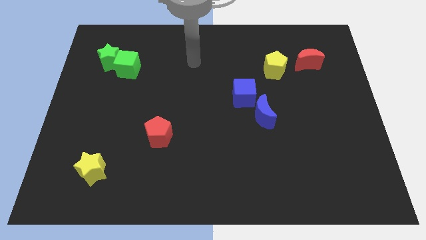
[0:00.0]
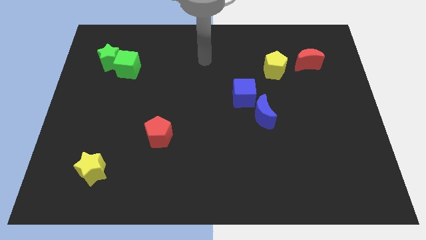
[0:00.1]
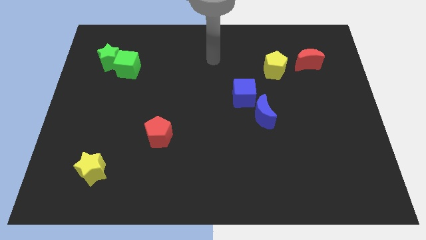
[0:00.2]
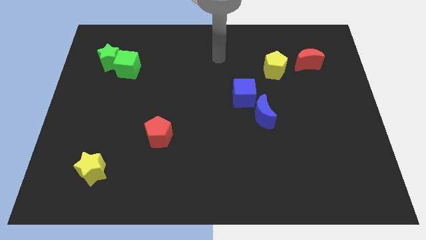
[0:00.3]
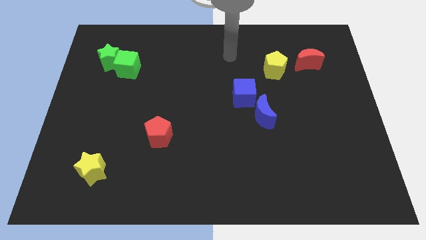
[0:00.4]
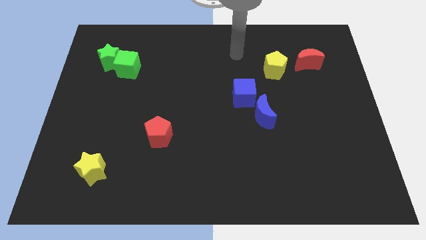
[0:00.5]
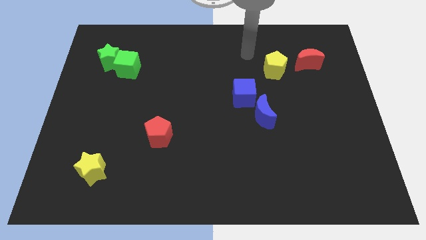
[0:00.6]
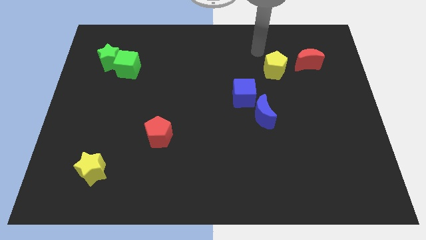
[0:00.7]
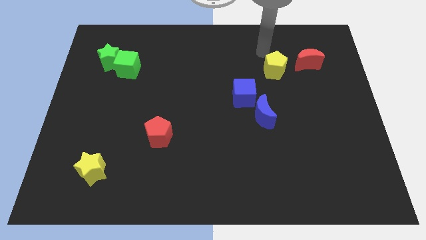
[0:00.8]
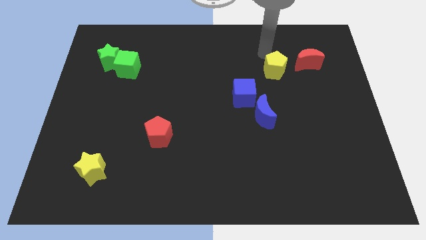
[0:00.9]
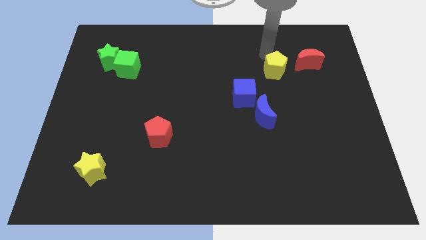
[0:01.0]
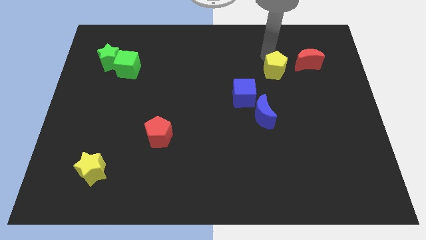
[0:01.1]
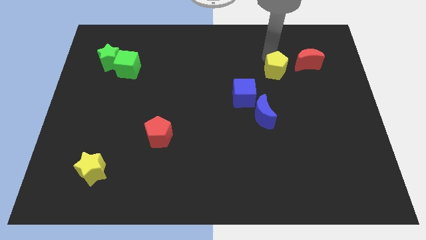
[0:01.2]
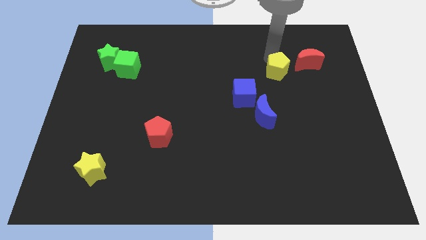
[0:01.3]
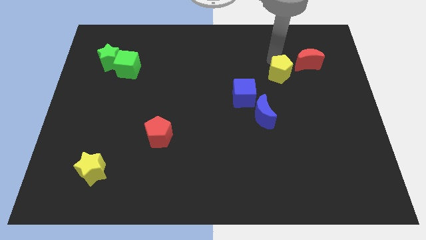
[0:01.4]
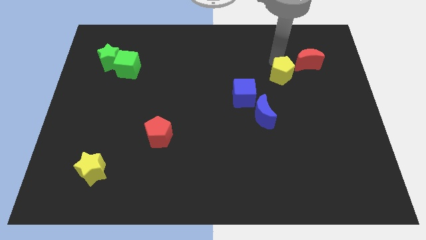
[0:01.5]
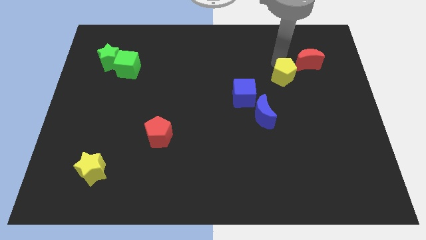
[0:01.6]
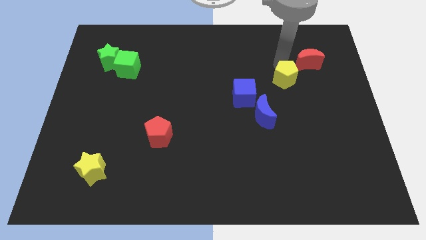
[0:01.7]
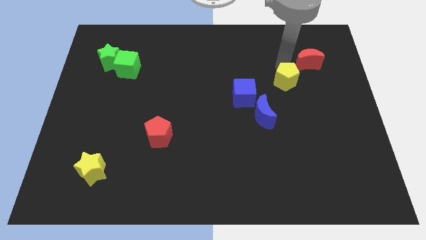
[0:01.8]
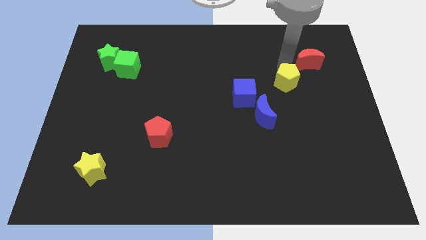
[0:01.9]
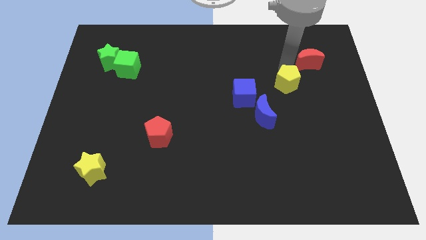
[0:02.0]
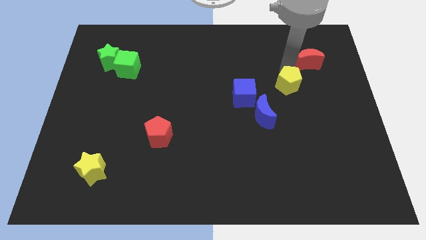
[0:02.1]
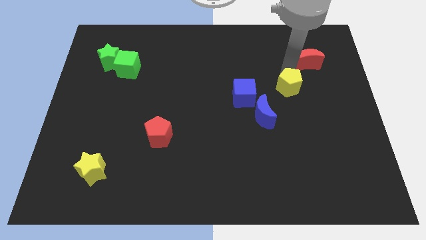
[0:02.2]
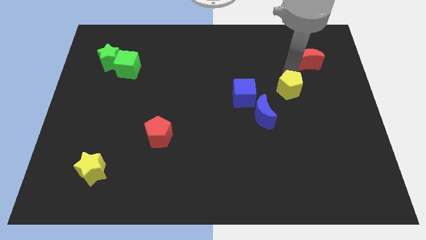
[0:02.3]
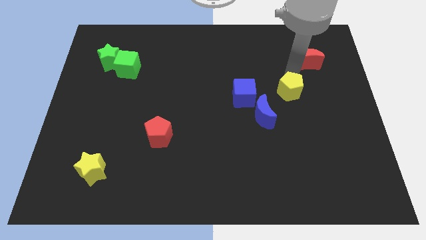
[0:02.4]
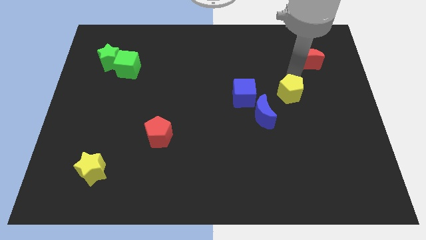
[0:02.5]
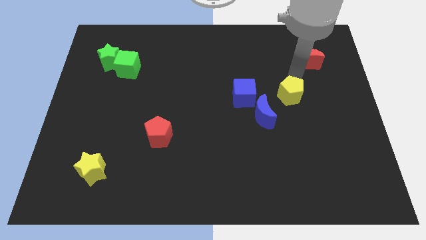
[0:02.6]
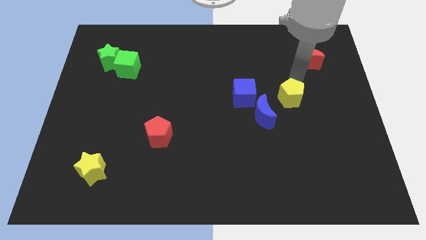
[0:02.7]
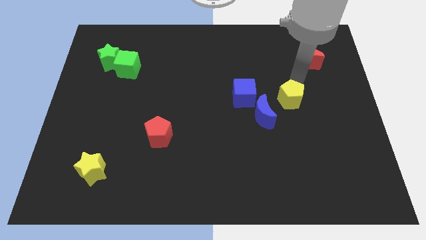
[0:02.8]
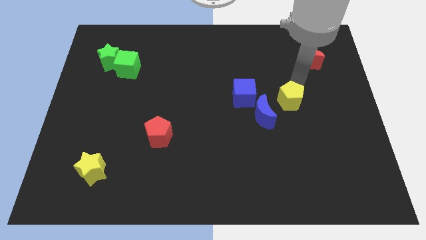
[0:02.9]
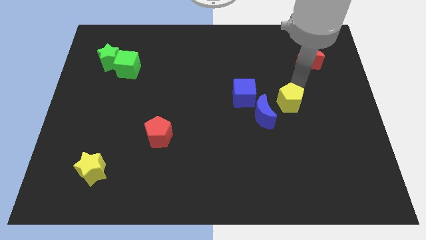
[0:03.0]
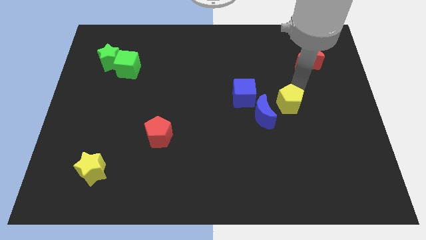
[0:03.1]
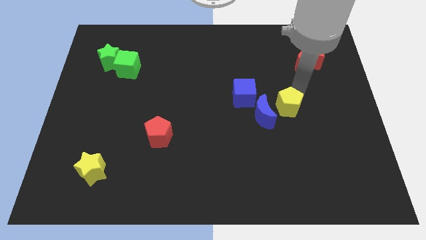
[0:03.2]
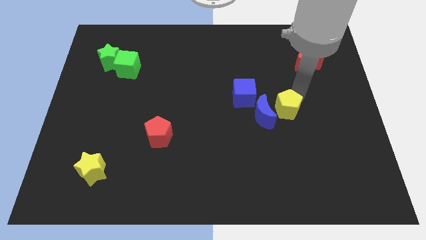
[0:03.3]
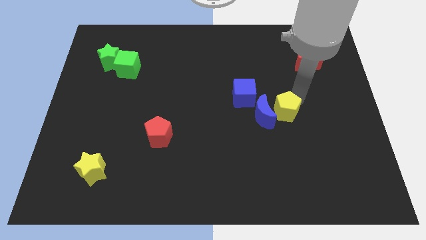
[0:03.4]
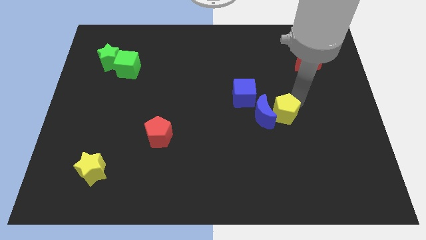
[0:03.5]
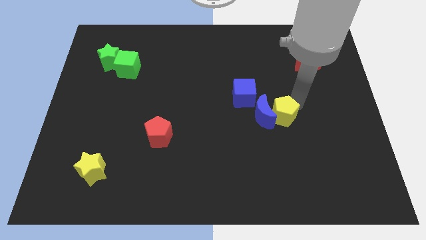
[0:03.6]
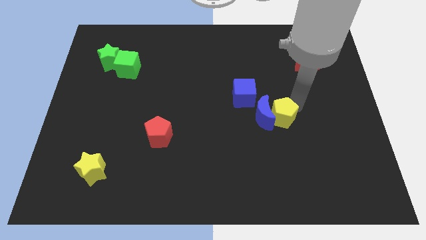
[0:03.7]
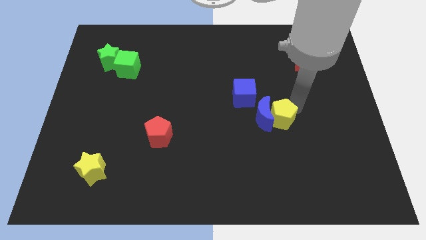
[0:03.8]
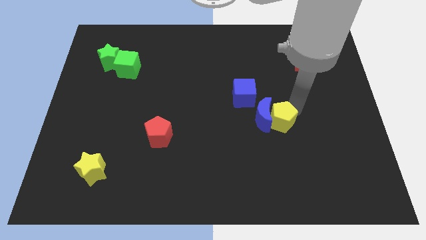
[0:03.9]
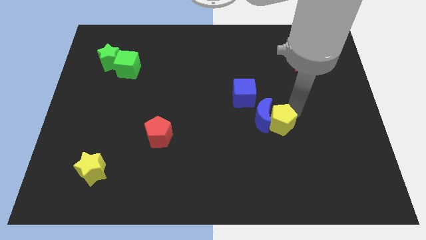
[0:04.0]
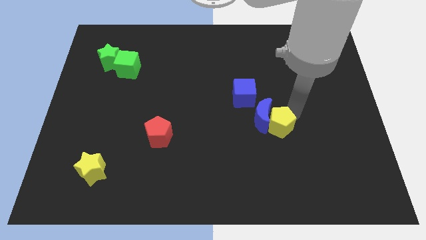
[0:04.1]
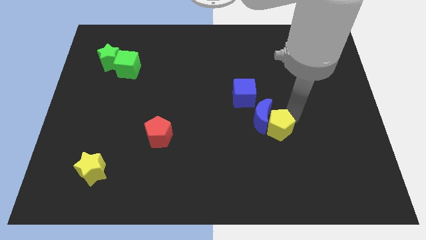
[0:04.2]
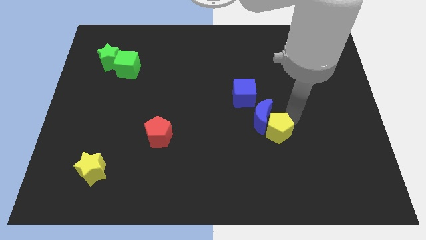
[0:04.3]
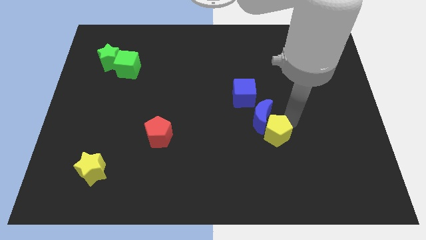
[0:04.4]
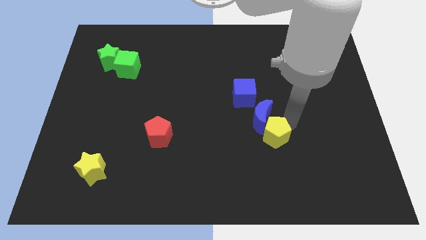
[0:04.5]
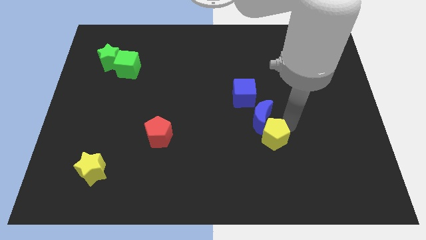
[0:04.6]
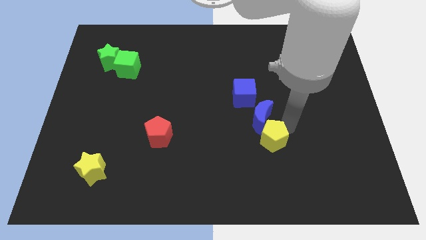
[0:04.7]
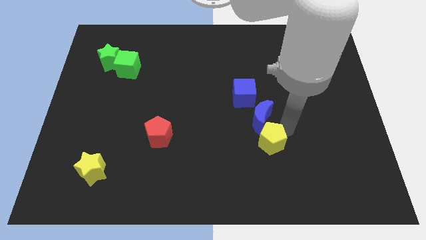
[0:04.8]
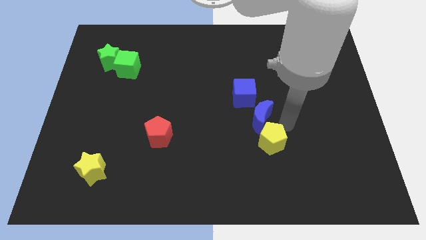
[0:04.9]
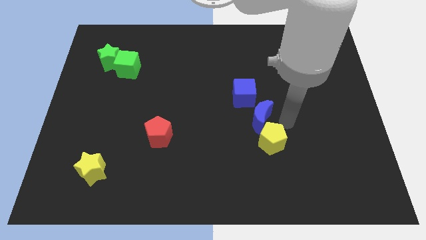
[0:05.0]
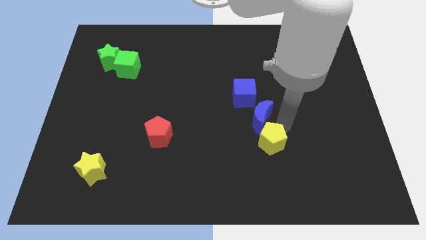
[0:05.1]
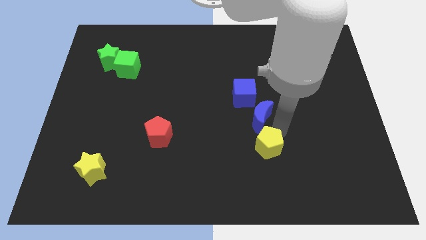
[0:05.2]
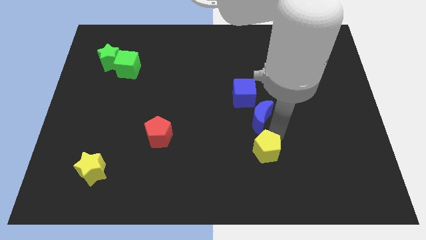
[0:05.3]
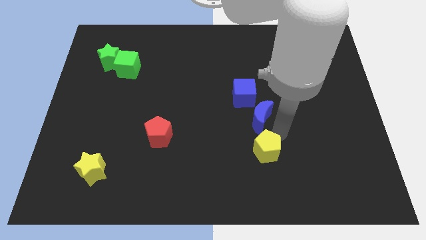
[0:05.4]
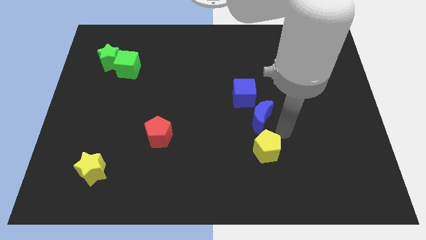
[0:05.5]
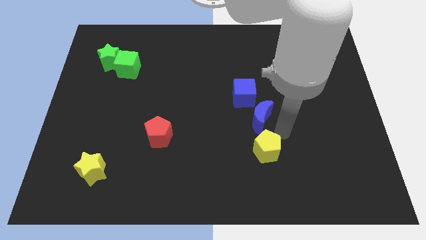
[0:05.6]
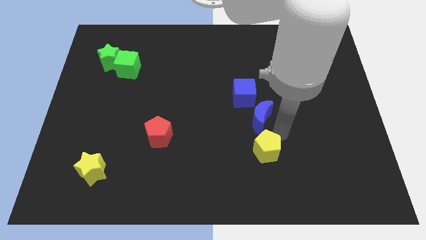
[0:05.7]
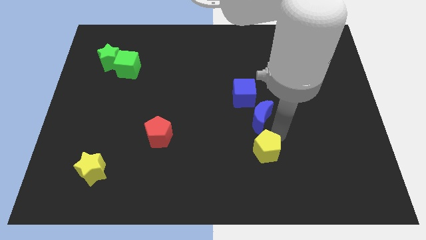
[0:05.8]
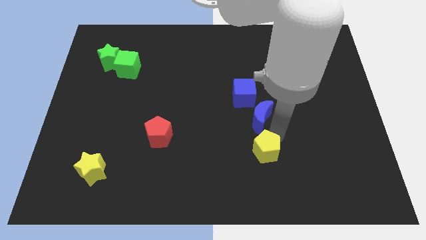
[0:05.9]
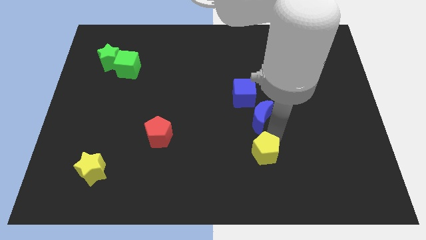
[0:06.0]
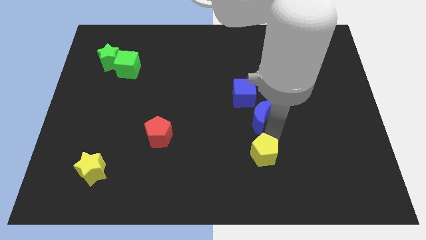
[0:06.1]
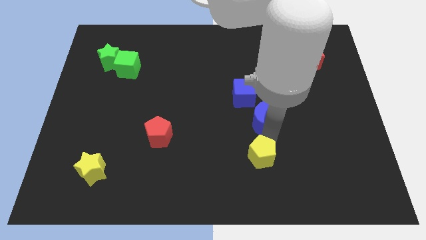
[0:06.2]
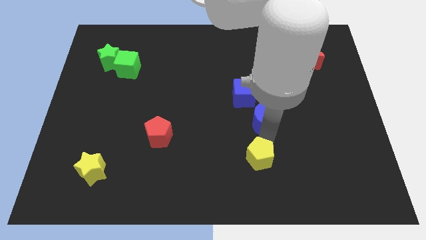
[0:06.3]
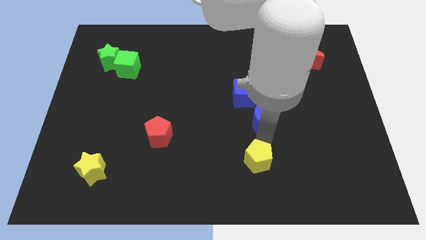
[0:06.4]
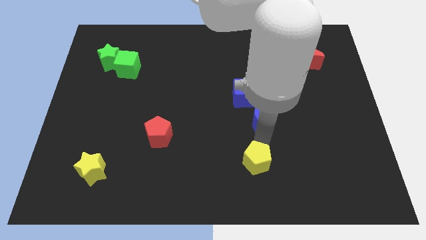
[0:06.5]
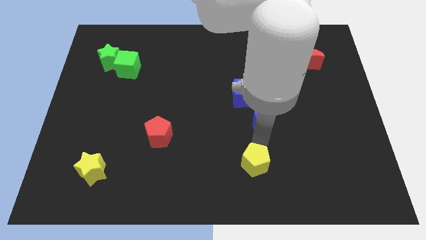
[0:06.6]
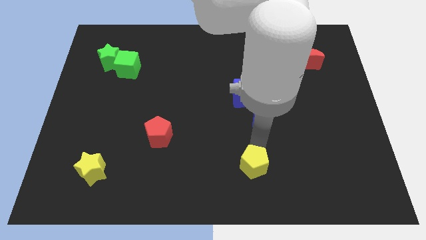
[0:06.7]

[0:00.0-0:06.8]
push the yellow pentagon to the bottom

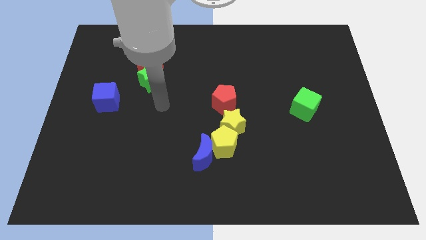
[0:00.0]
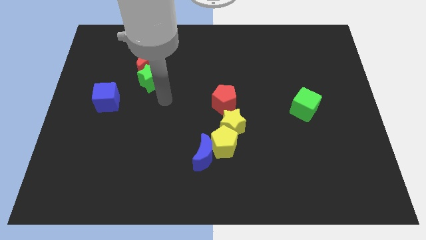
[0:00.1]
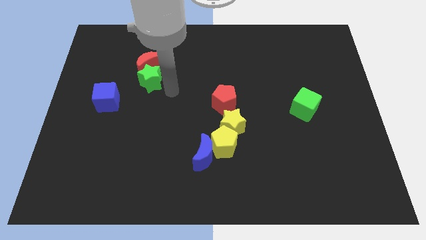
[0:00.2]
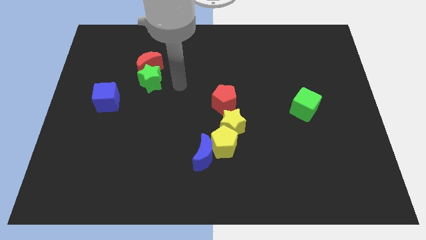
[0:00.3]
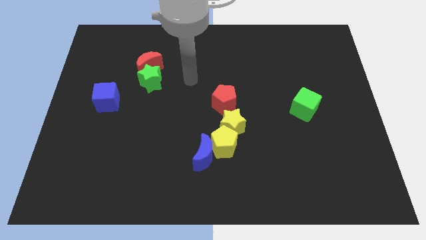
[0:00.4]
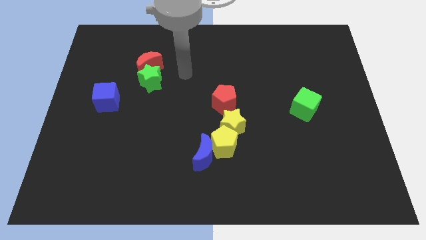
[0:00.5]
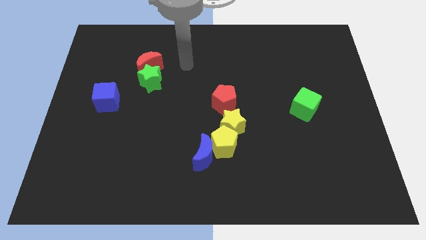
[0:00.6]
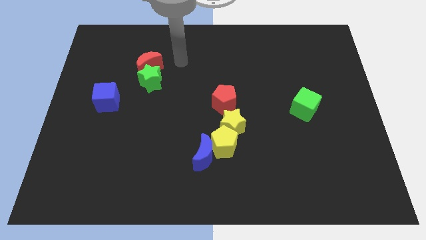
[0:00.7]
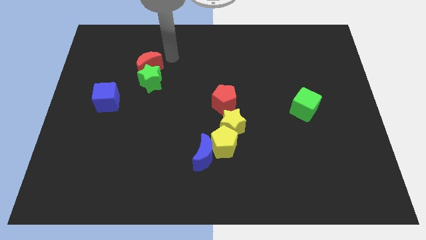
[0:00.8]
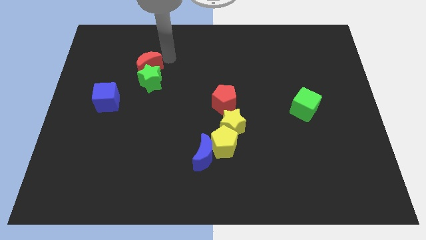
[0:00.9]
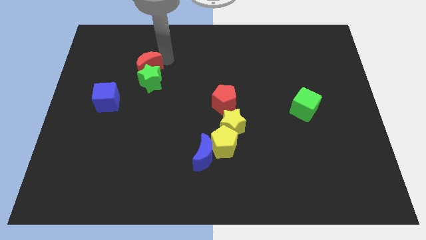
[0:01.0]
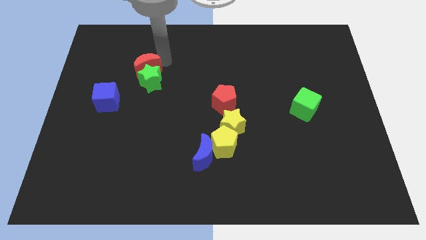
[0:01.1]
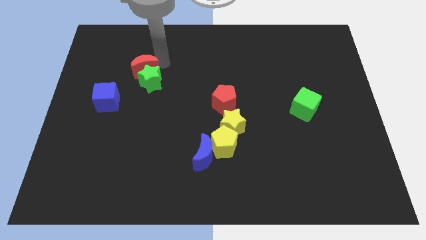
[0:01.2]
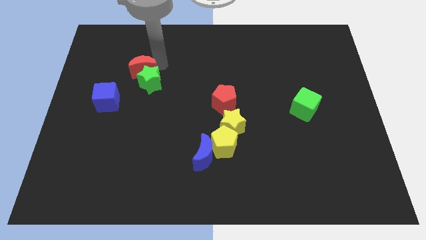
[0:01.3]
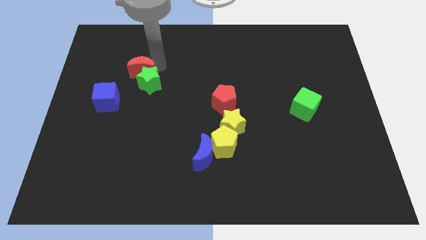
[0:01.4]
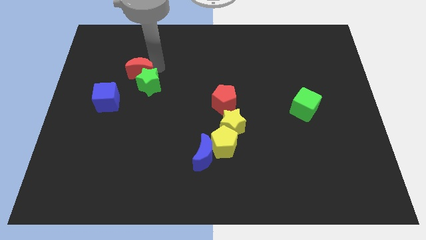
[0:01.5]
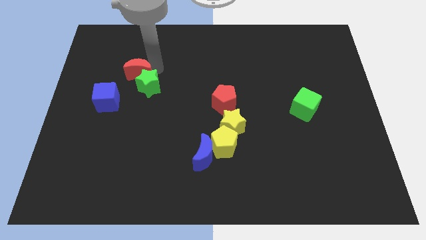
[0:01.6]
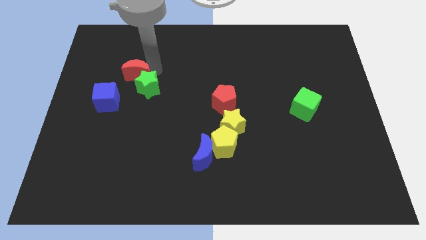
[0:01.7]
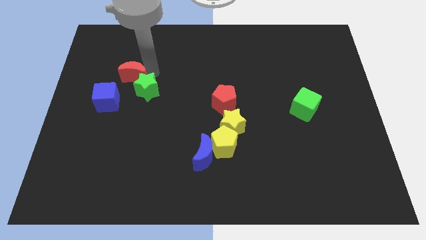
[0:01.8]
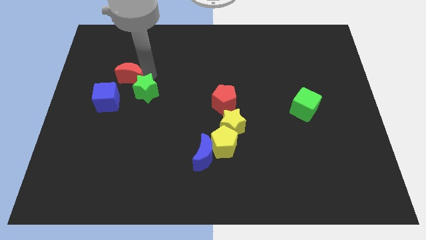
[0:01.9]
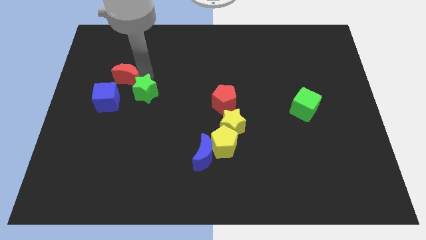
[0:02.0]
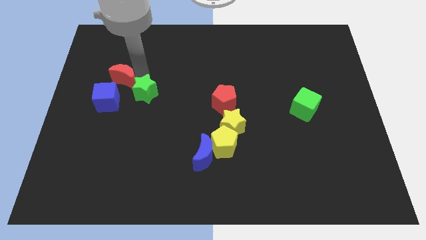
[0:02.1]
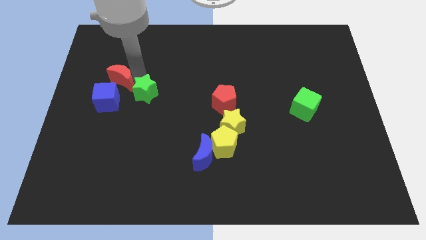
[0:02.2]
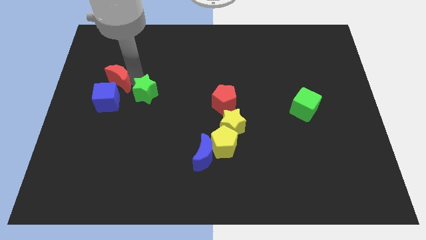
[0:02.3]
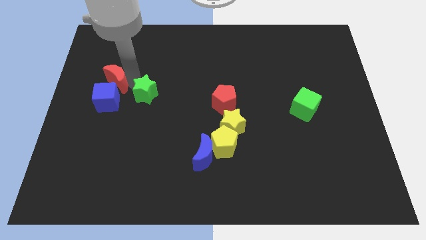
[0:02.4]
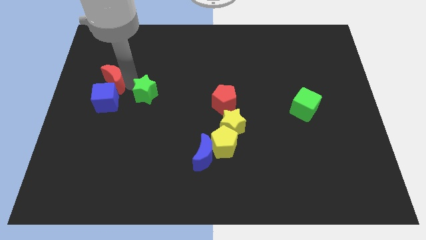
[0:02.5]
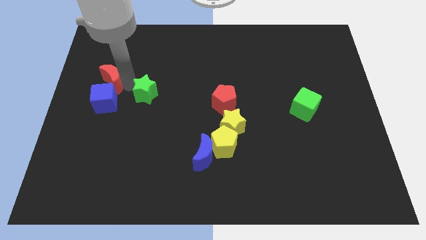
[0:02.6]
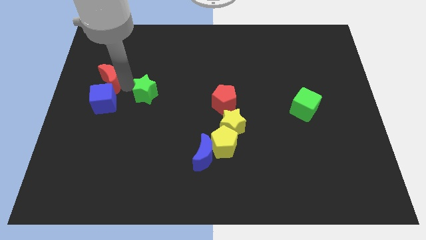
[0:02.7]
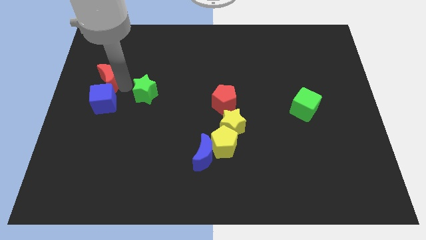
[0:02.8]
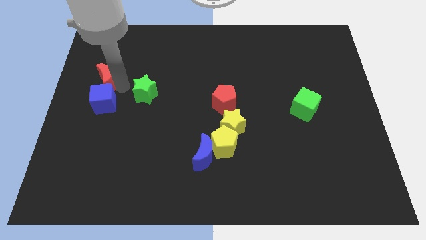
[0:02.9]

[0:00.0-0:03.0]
move the red moon to the center left
